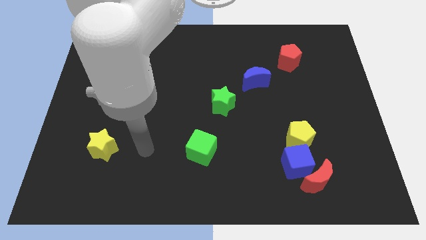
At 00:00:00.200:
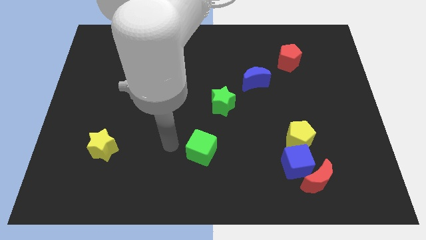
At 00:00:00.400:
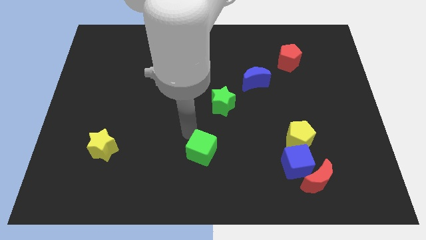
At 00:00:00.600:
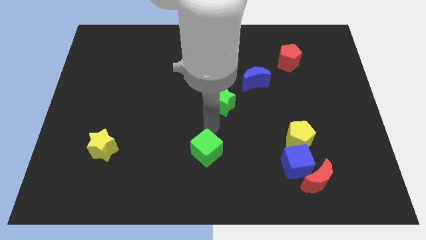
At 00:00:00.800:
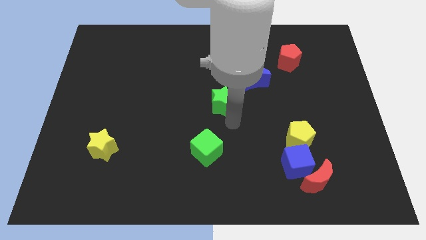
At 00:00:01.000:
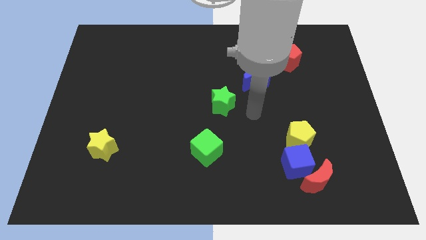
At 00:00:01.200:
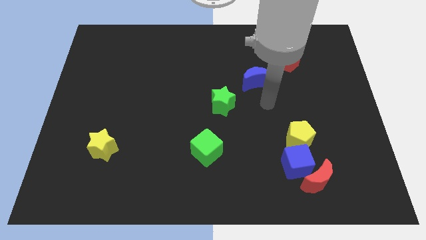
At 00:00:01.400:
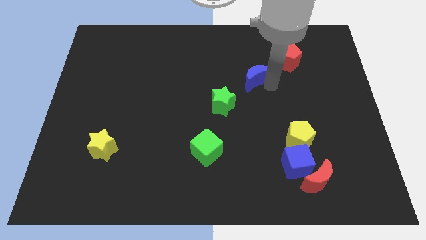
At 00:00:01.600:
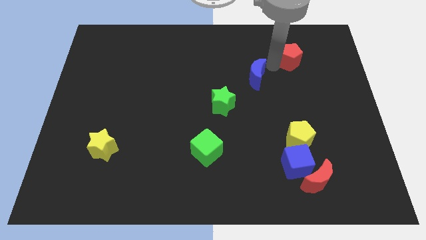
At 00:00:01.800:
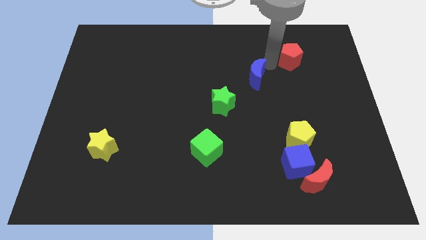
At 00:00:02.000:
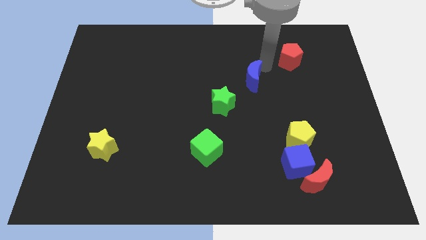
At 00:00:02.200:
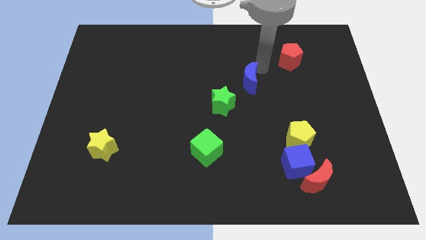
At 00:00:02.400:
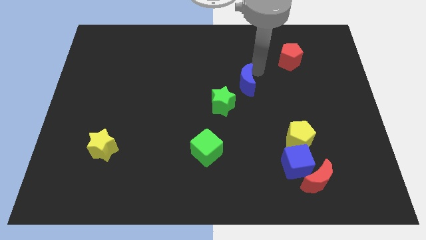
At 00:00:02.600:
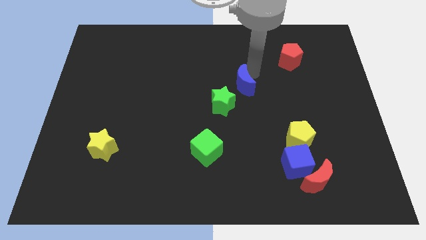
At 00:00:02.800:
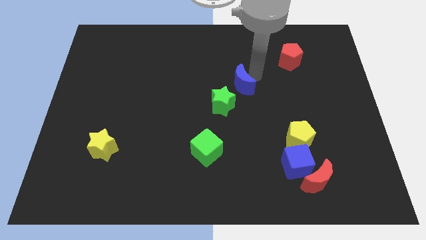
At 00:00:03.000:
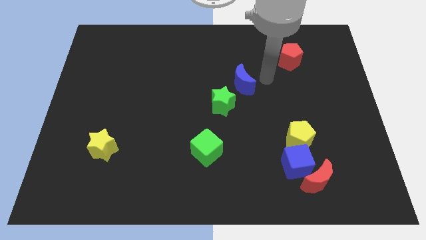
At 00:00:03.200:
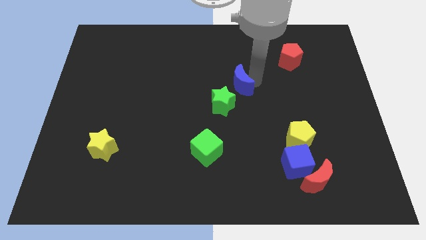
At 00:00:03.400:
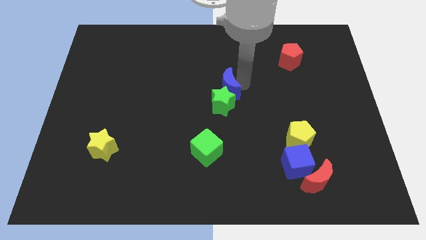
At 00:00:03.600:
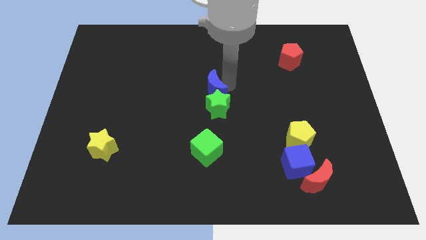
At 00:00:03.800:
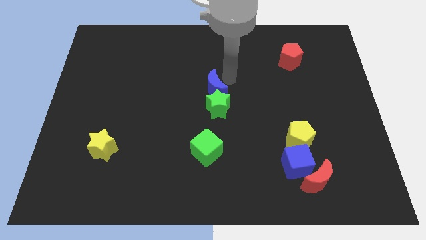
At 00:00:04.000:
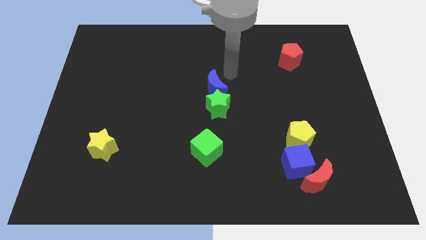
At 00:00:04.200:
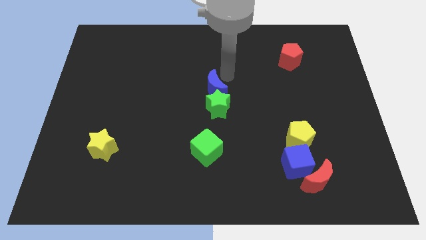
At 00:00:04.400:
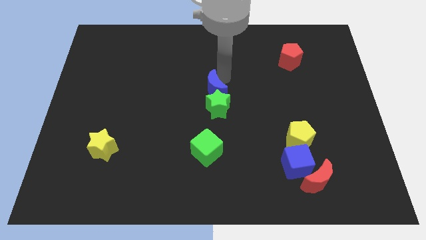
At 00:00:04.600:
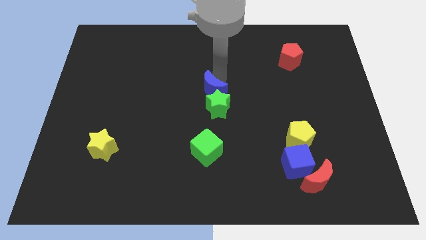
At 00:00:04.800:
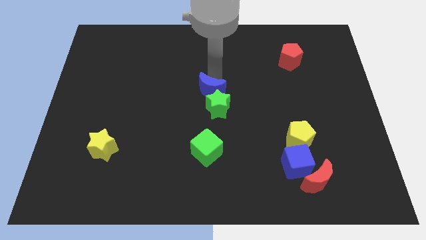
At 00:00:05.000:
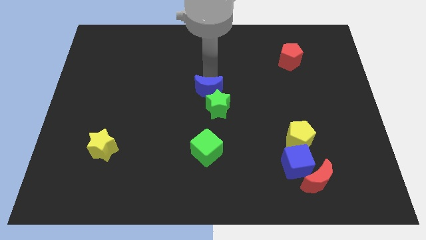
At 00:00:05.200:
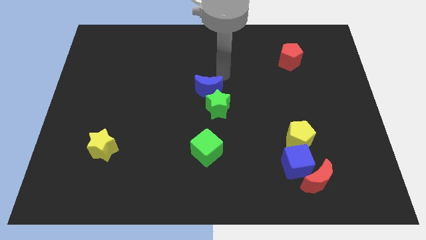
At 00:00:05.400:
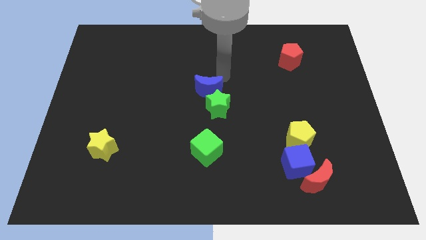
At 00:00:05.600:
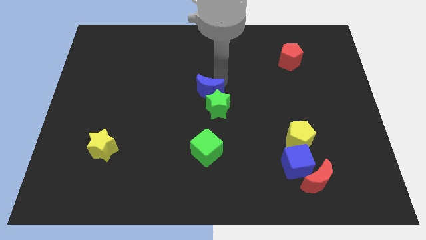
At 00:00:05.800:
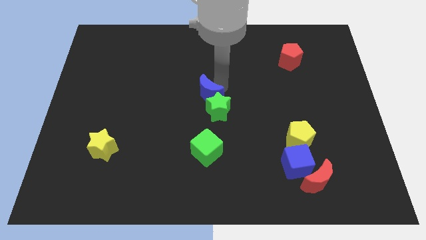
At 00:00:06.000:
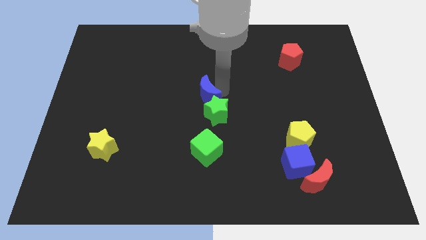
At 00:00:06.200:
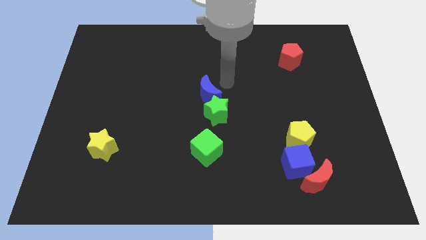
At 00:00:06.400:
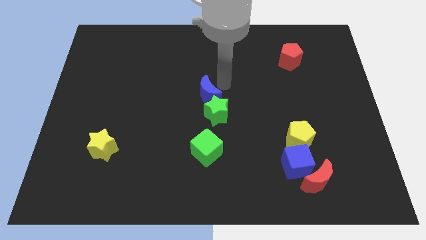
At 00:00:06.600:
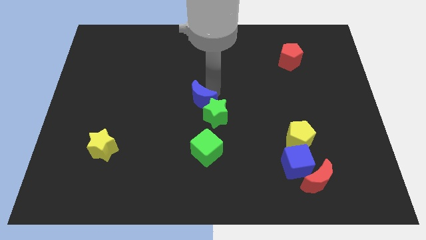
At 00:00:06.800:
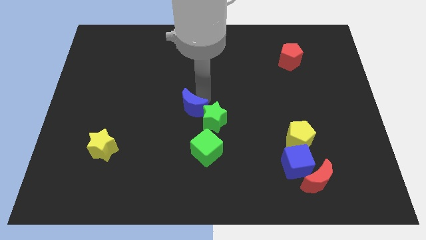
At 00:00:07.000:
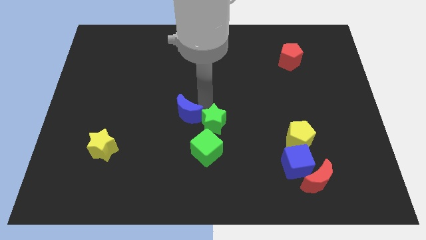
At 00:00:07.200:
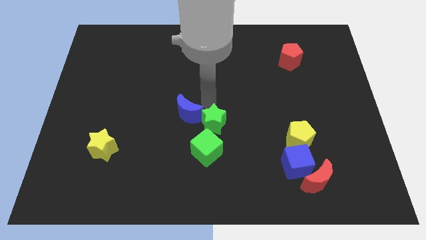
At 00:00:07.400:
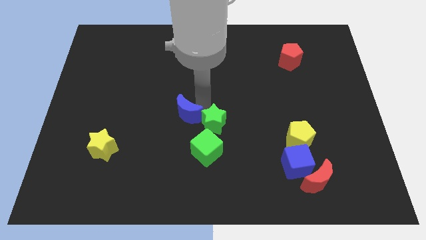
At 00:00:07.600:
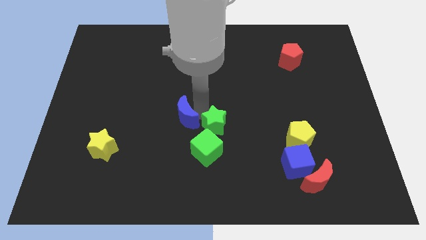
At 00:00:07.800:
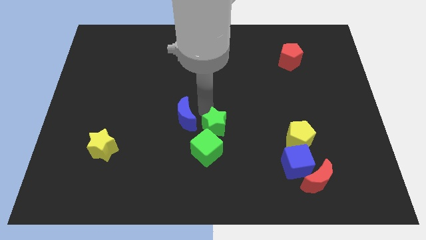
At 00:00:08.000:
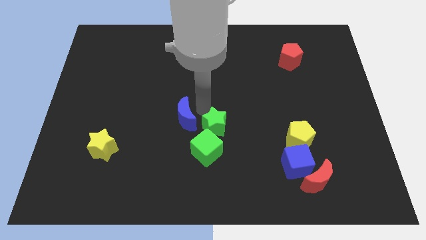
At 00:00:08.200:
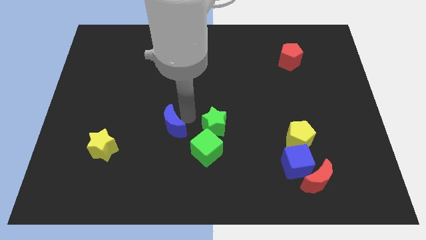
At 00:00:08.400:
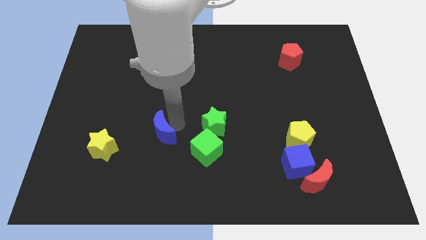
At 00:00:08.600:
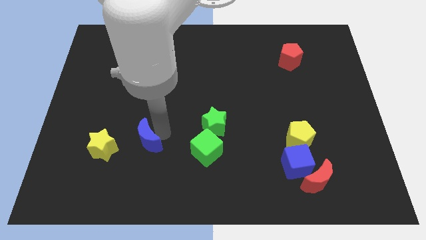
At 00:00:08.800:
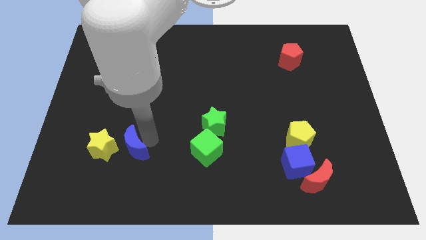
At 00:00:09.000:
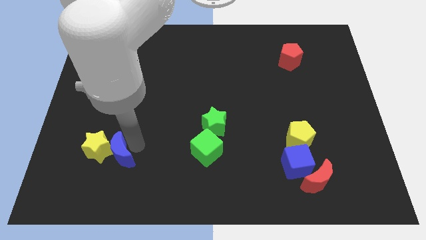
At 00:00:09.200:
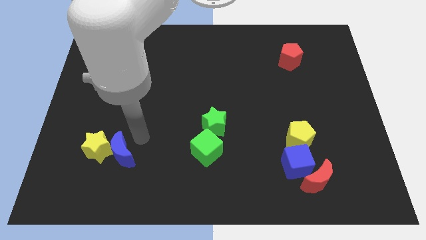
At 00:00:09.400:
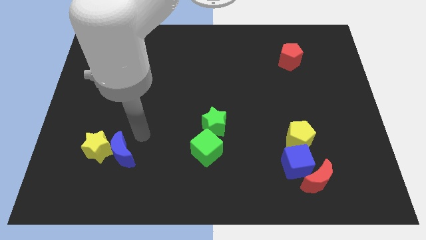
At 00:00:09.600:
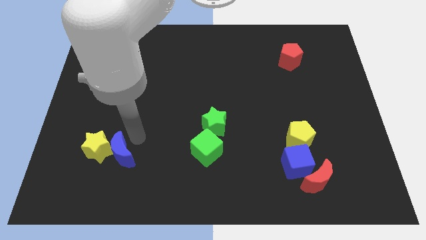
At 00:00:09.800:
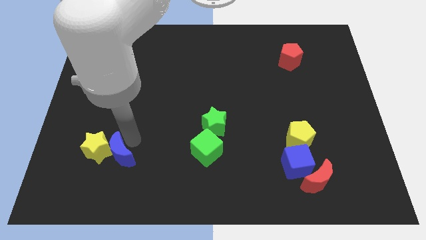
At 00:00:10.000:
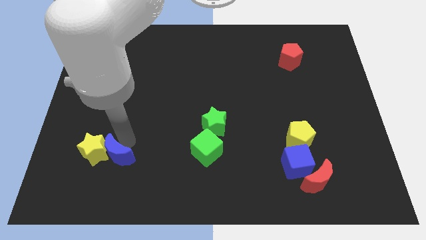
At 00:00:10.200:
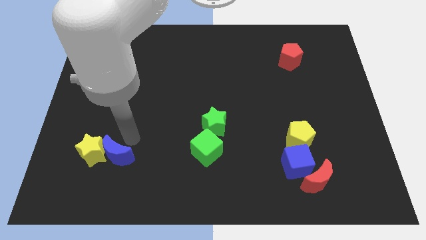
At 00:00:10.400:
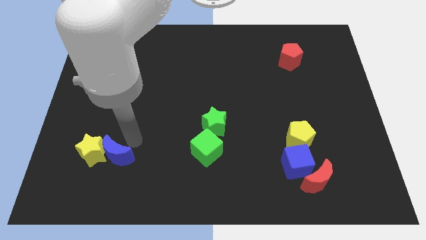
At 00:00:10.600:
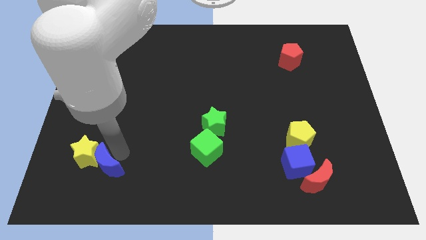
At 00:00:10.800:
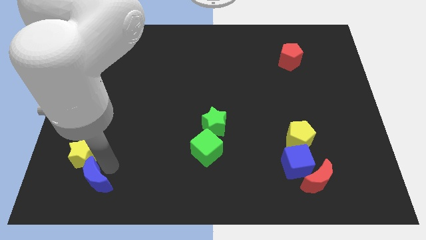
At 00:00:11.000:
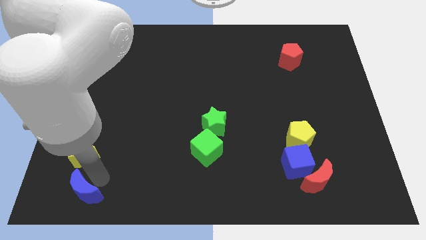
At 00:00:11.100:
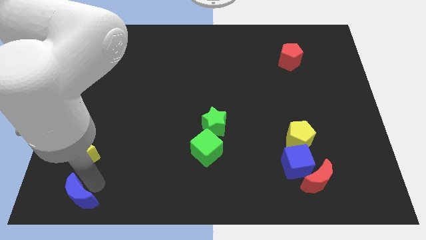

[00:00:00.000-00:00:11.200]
move the blue moon to the bottom left of the board

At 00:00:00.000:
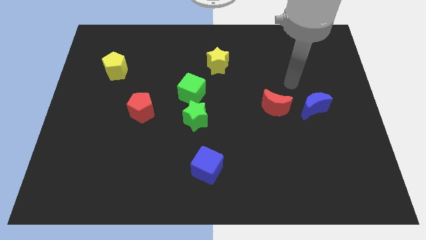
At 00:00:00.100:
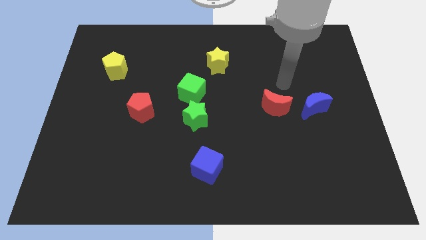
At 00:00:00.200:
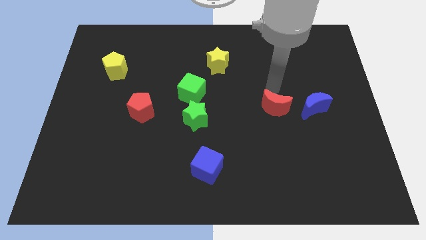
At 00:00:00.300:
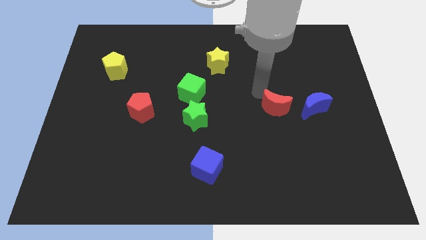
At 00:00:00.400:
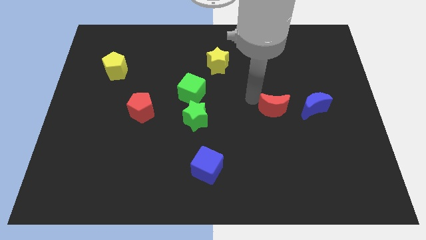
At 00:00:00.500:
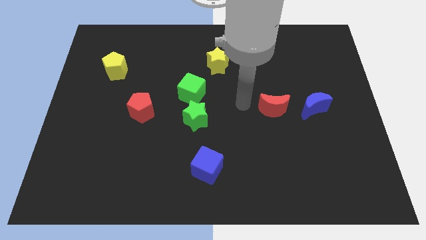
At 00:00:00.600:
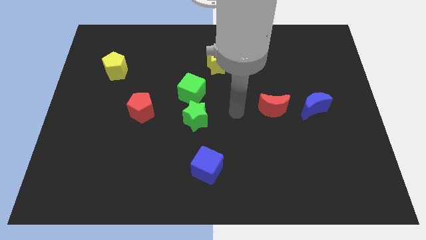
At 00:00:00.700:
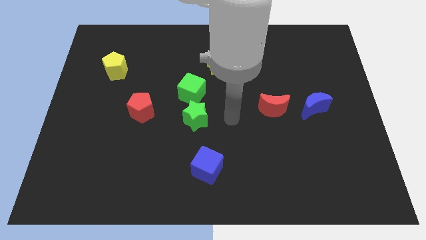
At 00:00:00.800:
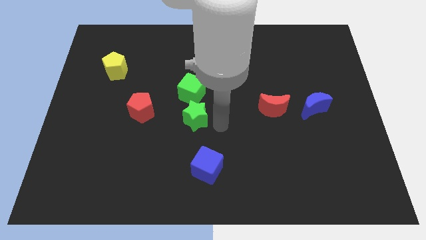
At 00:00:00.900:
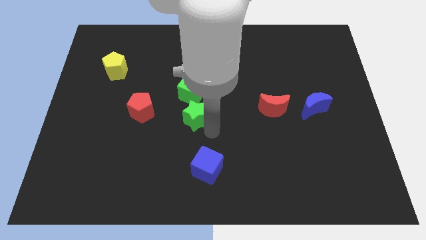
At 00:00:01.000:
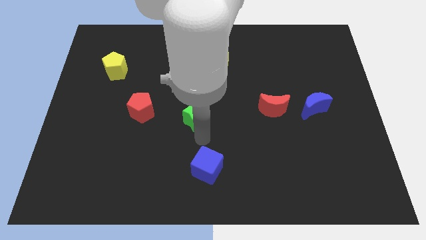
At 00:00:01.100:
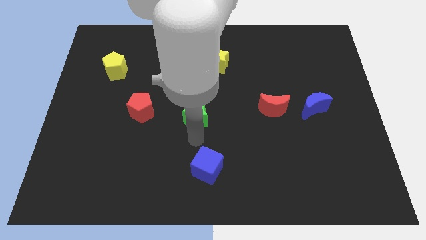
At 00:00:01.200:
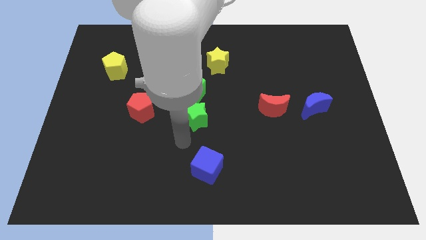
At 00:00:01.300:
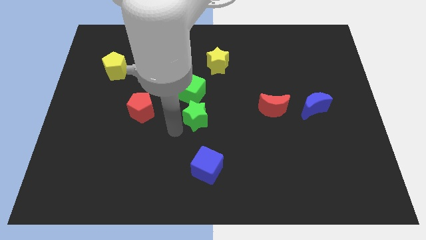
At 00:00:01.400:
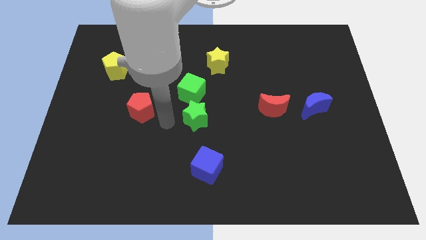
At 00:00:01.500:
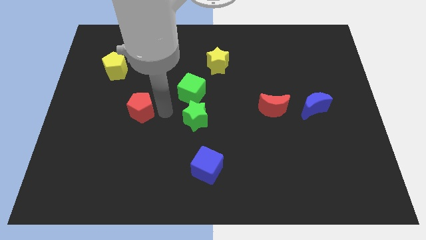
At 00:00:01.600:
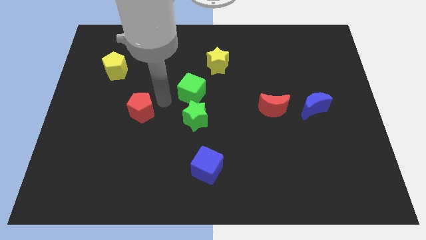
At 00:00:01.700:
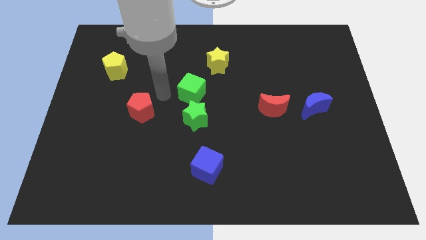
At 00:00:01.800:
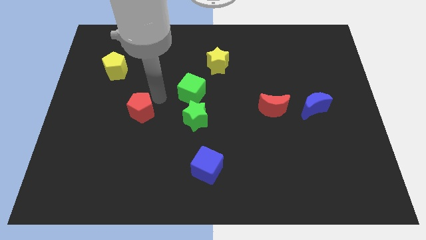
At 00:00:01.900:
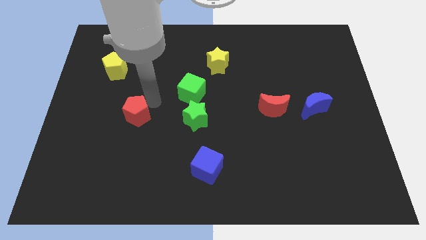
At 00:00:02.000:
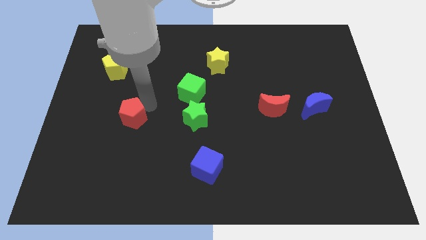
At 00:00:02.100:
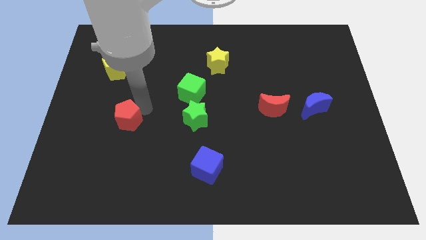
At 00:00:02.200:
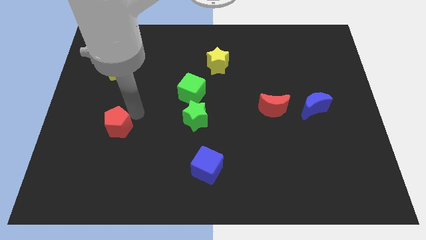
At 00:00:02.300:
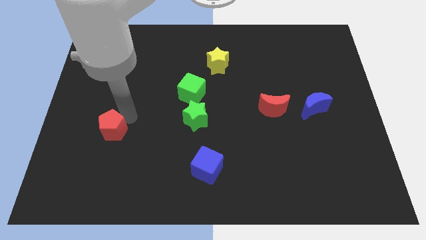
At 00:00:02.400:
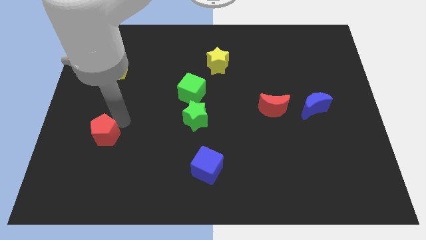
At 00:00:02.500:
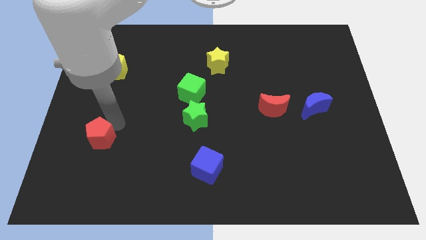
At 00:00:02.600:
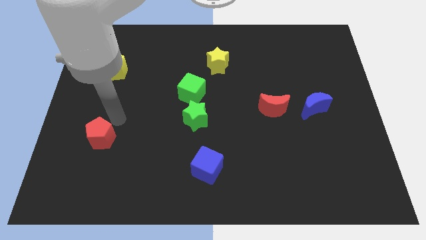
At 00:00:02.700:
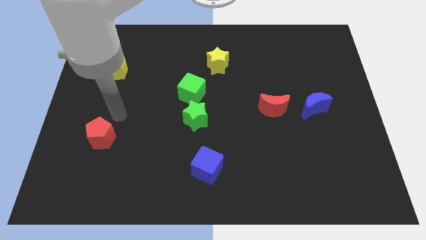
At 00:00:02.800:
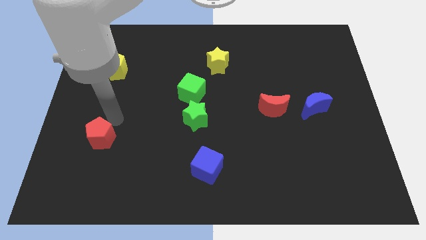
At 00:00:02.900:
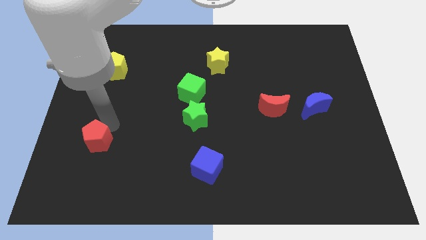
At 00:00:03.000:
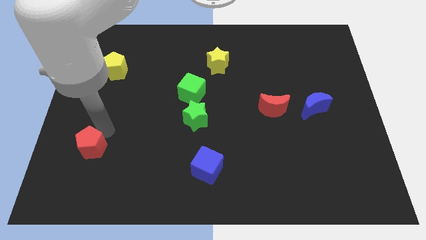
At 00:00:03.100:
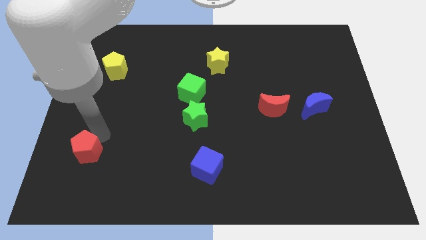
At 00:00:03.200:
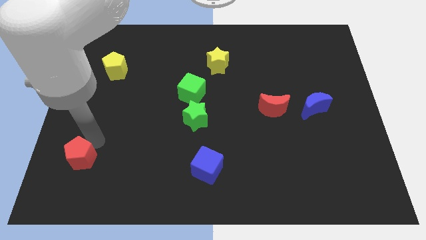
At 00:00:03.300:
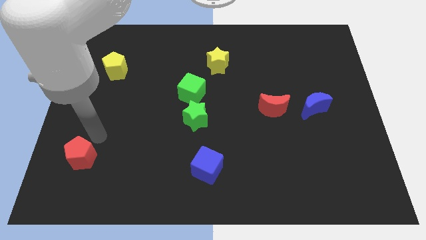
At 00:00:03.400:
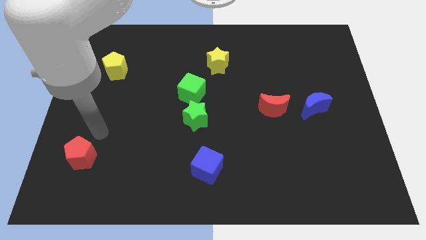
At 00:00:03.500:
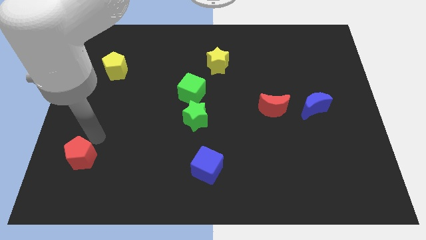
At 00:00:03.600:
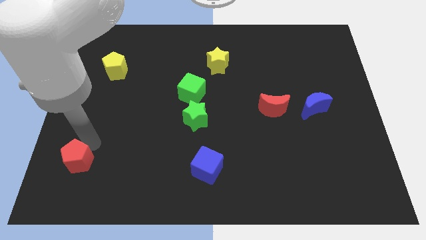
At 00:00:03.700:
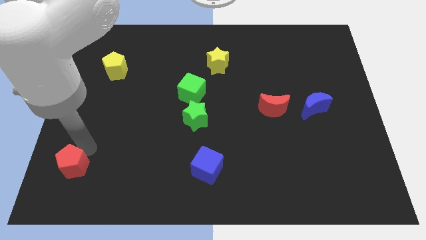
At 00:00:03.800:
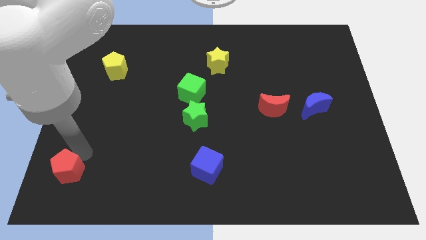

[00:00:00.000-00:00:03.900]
put the red pentagon to the bottom left
